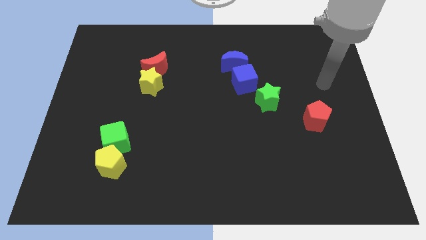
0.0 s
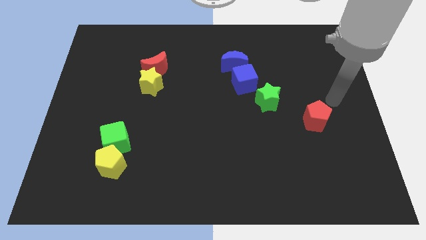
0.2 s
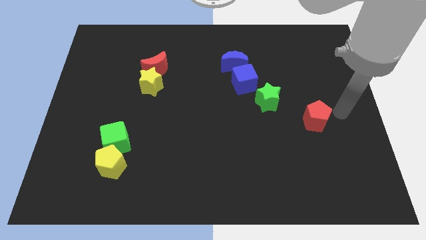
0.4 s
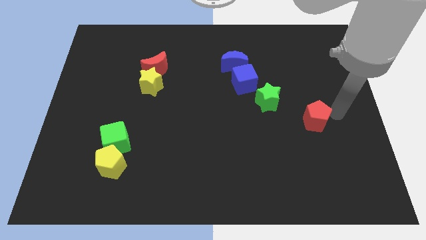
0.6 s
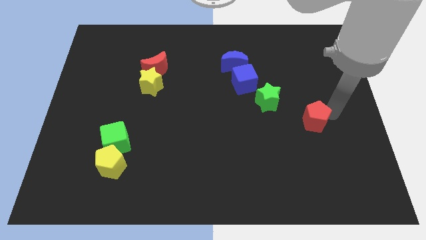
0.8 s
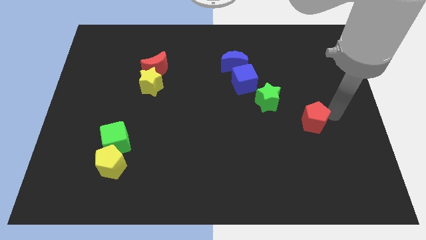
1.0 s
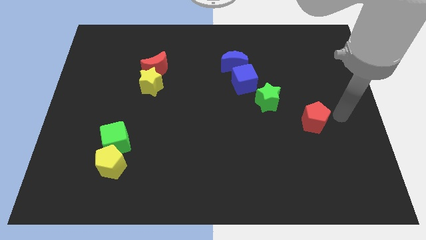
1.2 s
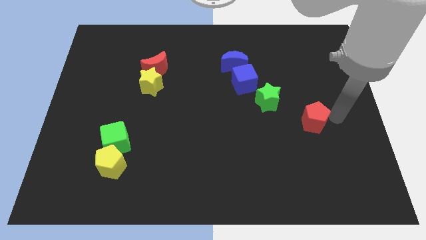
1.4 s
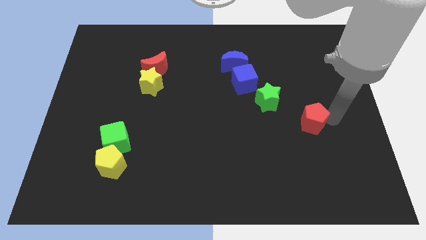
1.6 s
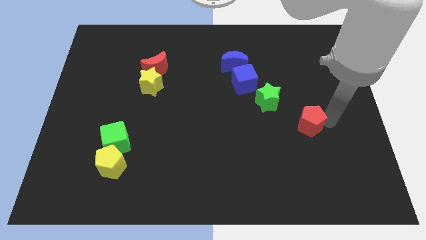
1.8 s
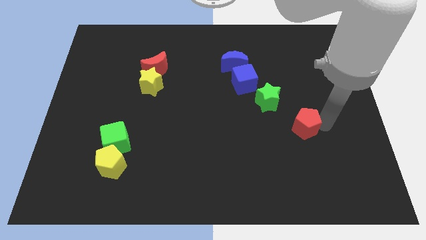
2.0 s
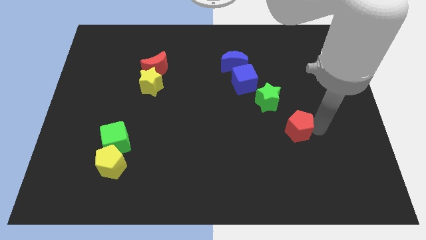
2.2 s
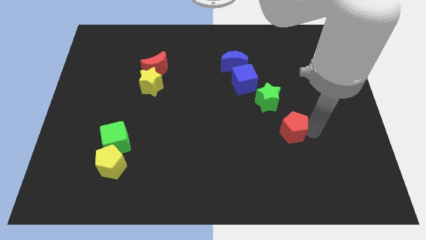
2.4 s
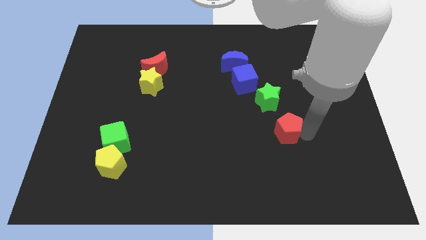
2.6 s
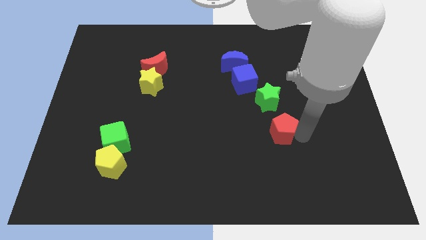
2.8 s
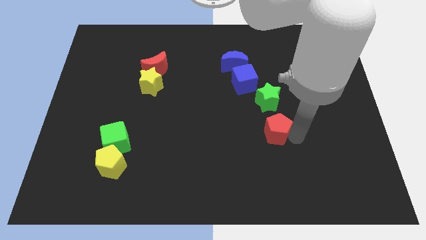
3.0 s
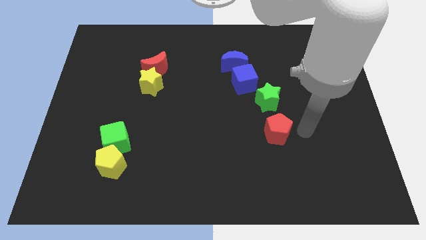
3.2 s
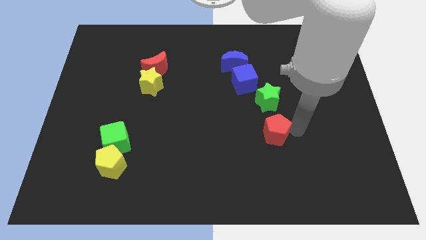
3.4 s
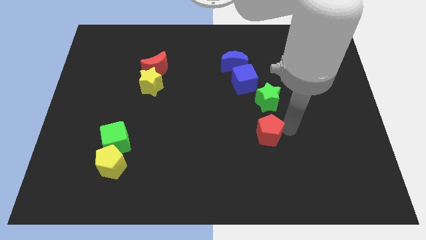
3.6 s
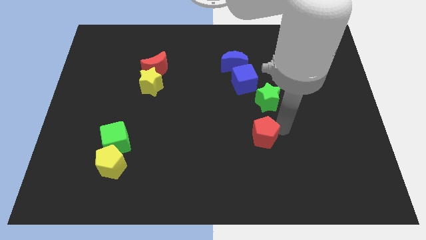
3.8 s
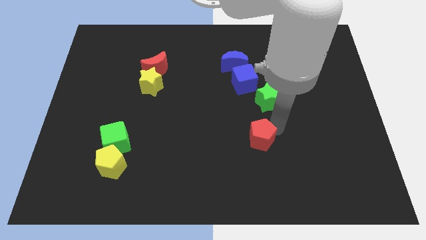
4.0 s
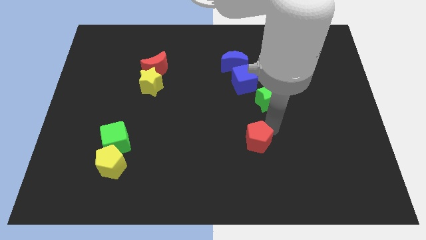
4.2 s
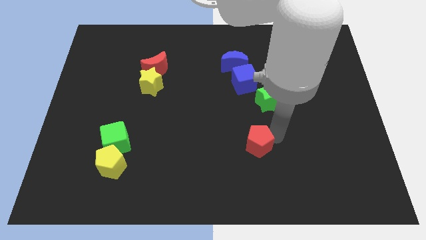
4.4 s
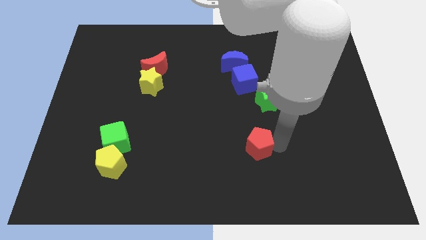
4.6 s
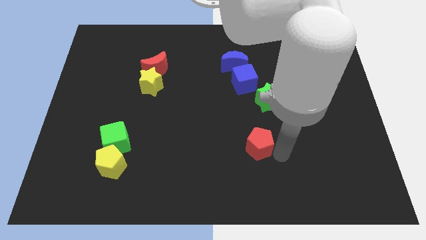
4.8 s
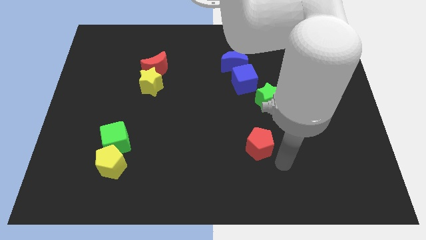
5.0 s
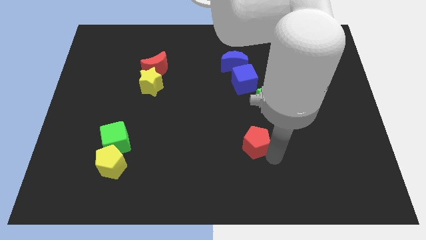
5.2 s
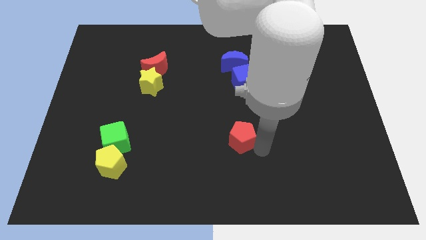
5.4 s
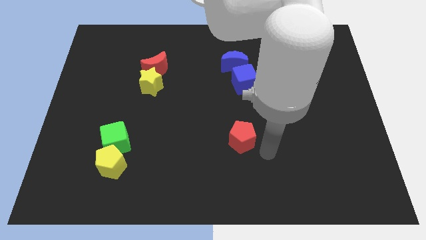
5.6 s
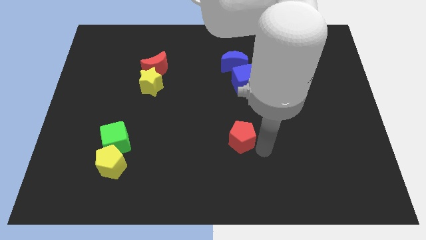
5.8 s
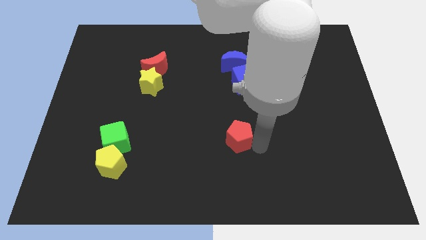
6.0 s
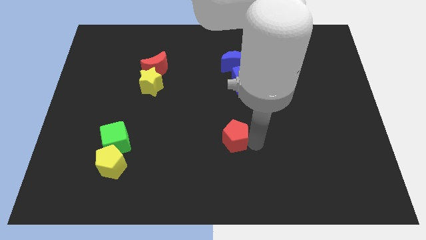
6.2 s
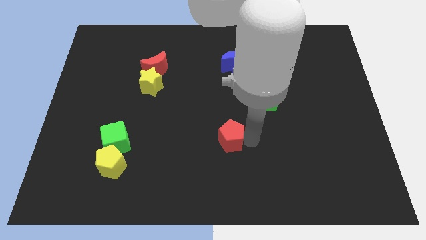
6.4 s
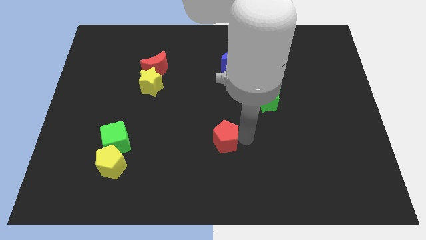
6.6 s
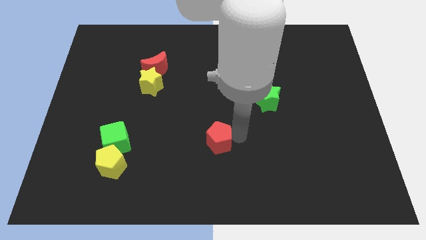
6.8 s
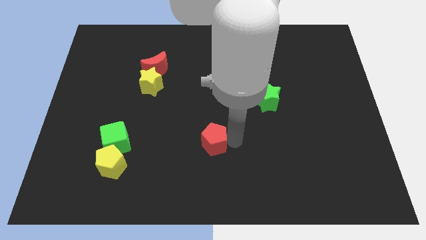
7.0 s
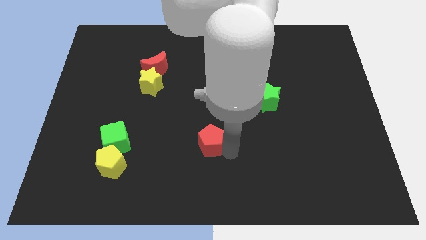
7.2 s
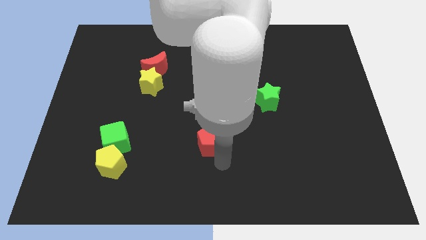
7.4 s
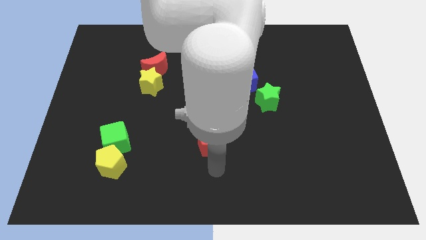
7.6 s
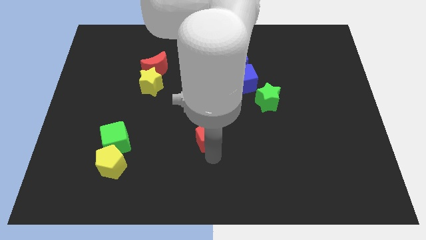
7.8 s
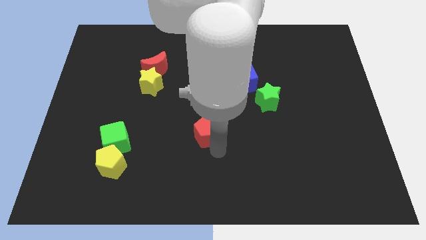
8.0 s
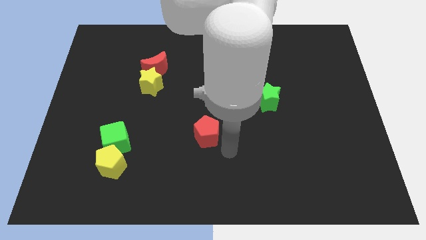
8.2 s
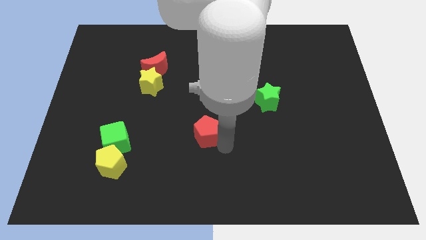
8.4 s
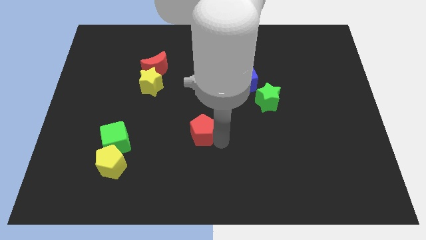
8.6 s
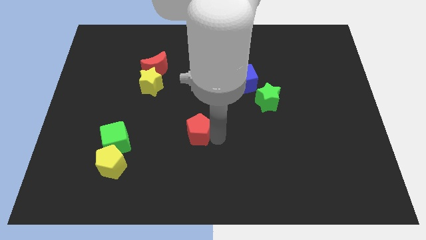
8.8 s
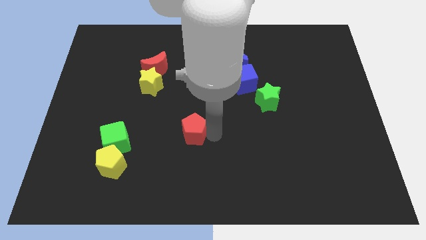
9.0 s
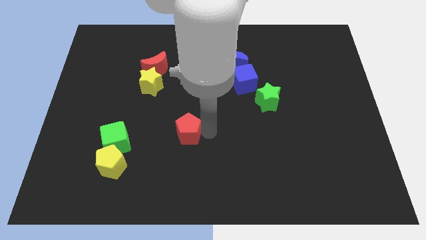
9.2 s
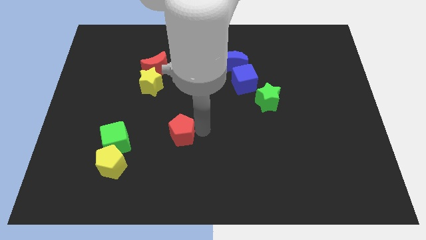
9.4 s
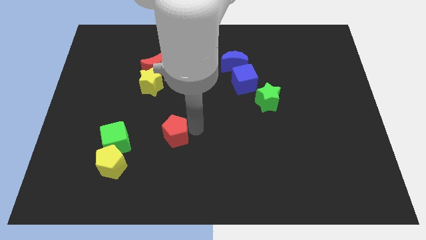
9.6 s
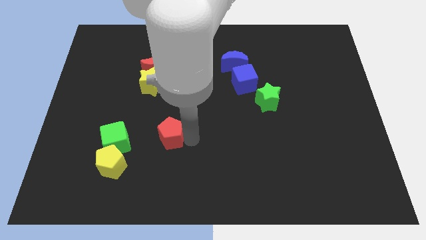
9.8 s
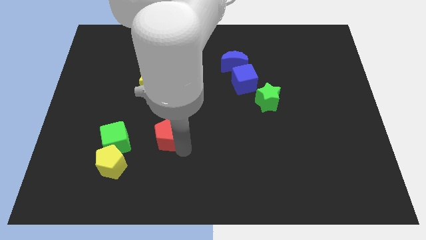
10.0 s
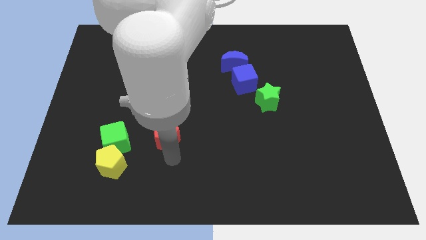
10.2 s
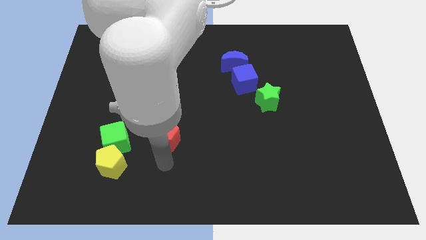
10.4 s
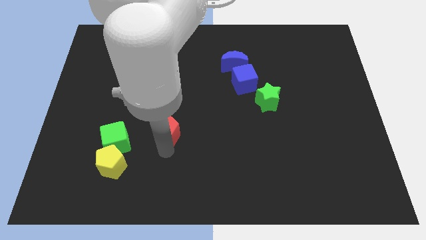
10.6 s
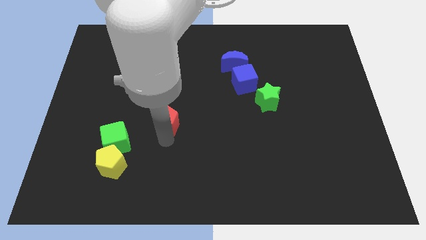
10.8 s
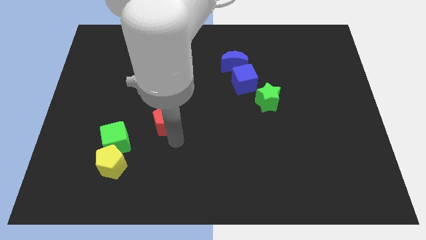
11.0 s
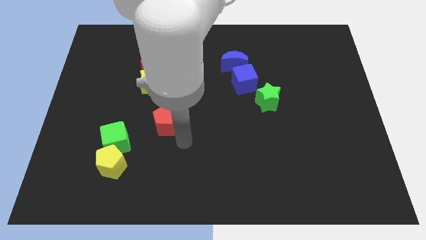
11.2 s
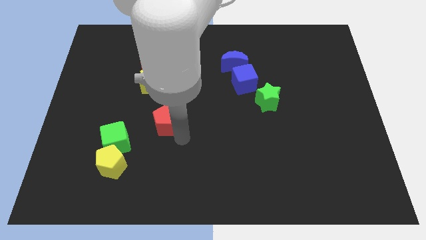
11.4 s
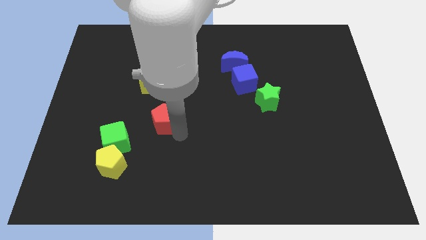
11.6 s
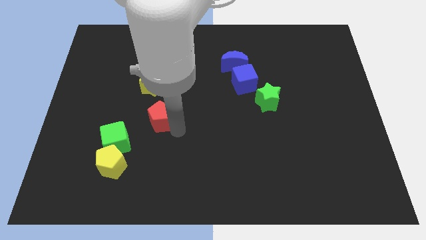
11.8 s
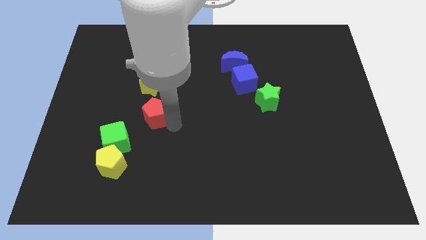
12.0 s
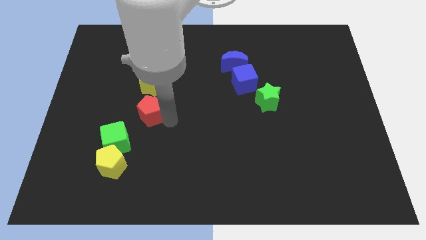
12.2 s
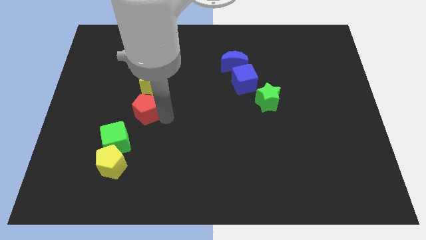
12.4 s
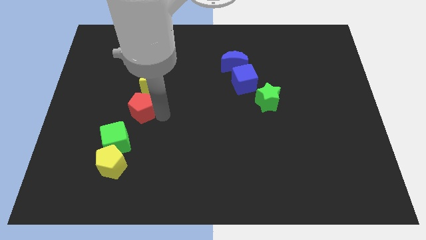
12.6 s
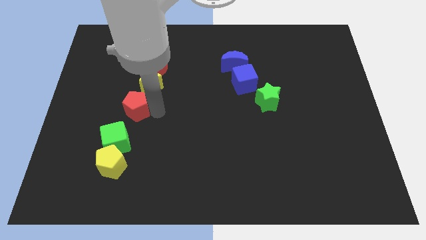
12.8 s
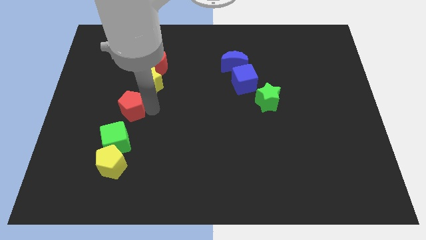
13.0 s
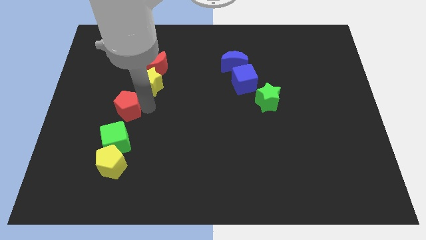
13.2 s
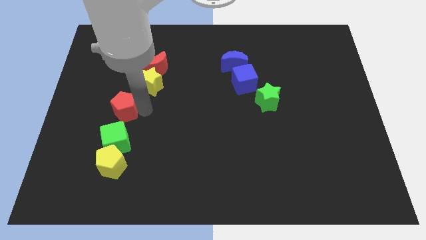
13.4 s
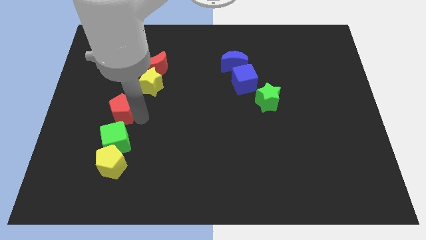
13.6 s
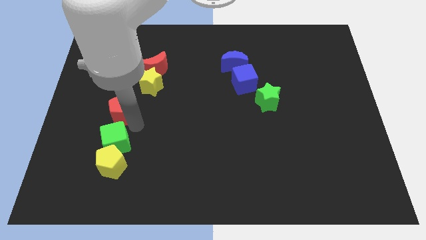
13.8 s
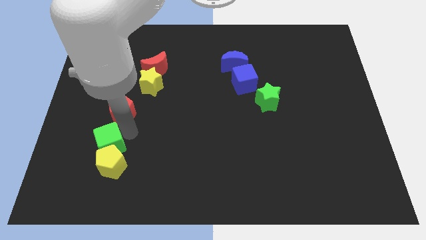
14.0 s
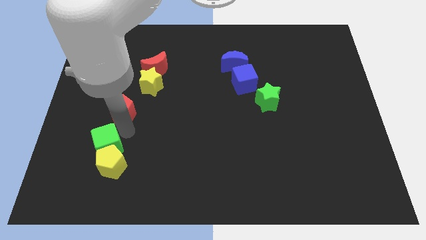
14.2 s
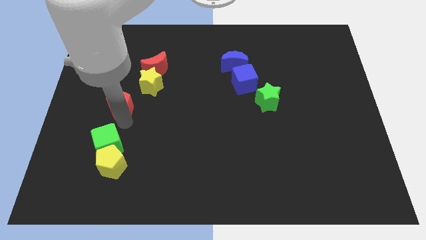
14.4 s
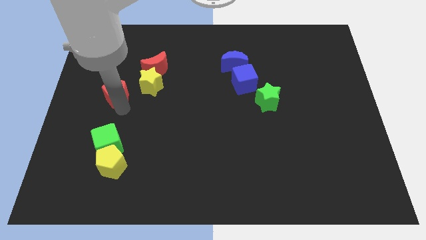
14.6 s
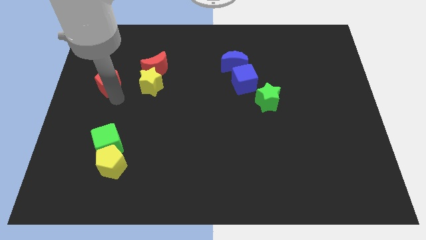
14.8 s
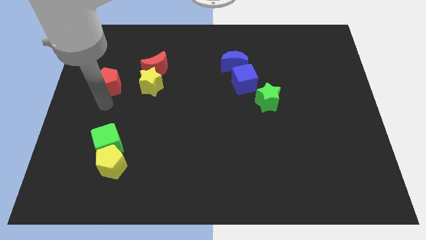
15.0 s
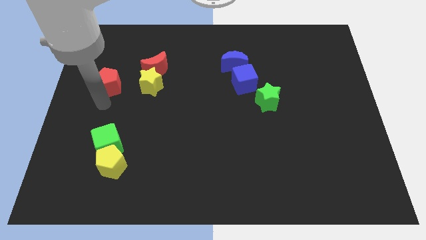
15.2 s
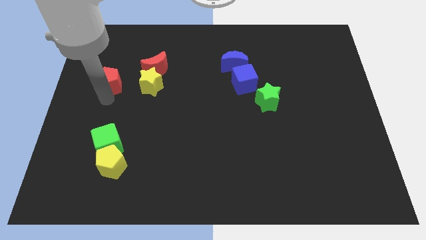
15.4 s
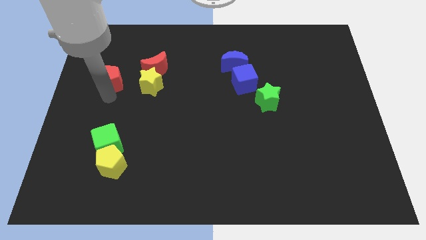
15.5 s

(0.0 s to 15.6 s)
slide the red pentagon to the left of the red moon
